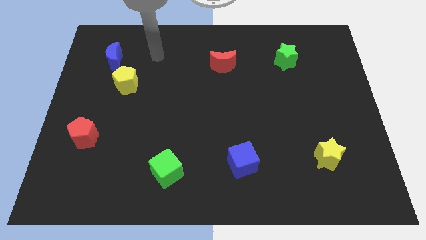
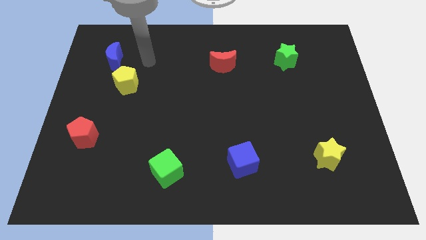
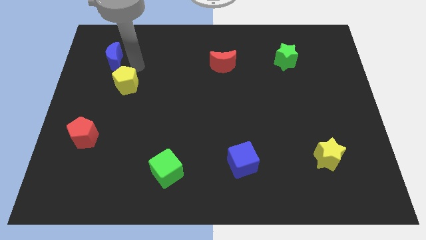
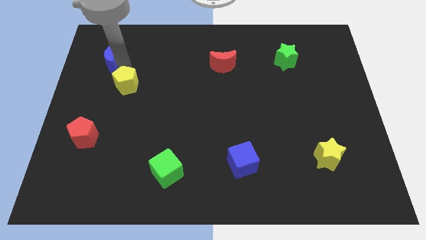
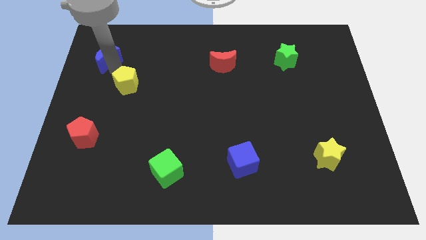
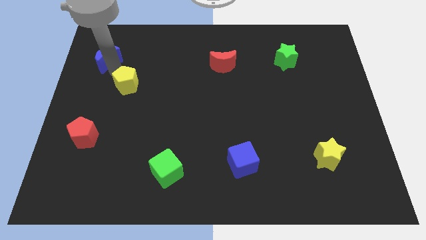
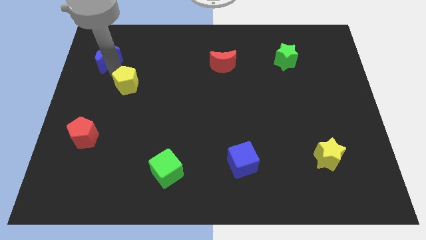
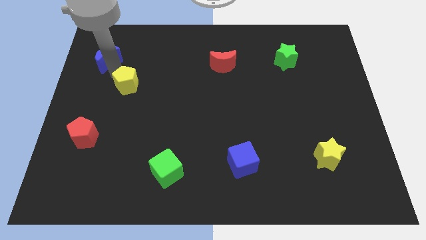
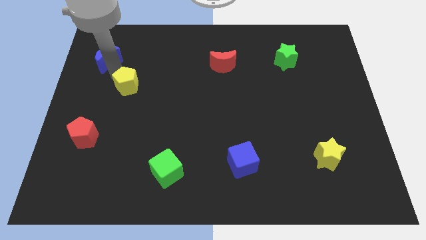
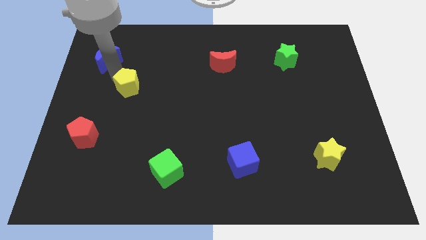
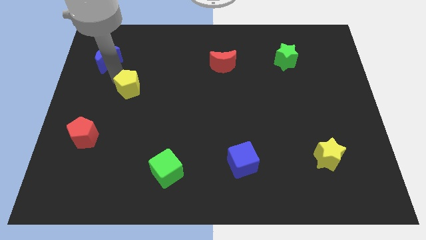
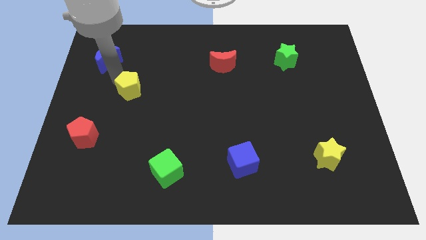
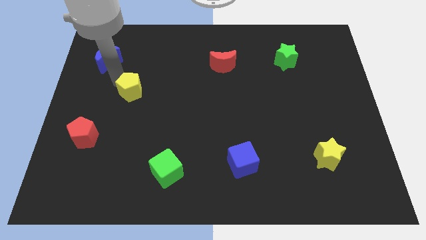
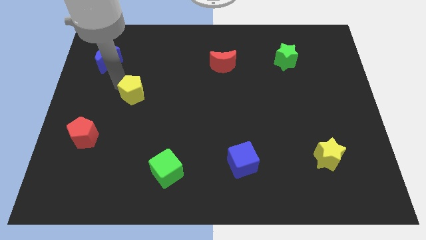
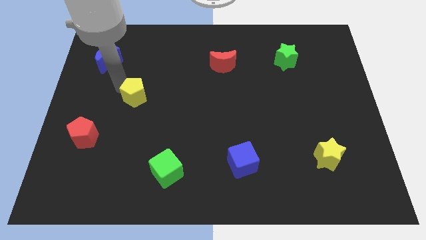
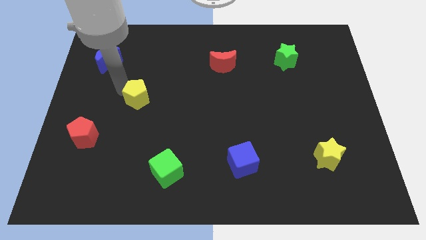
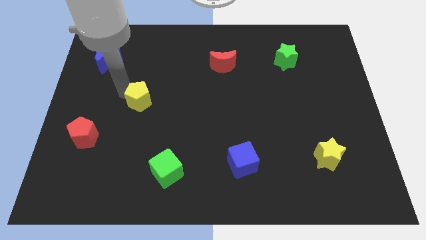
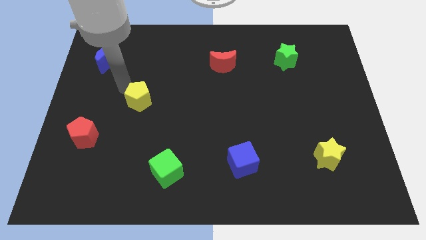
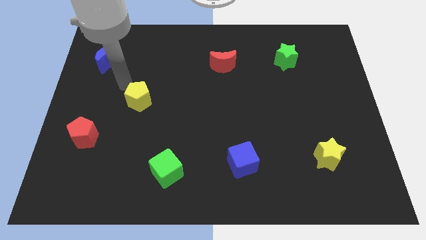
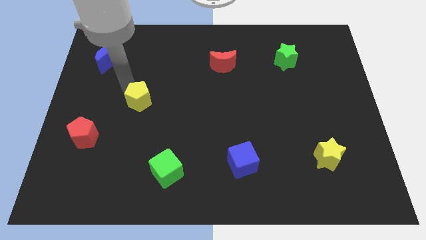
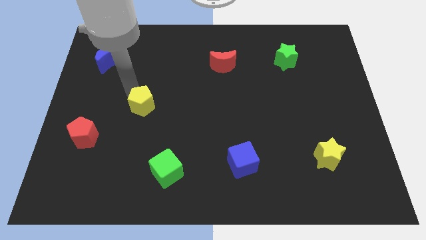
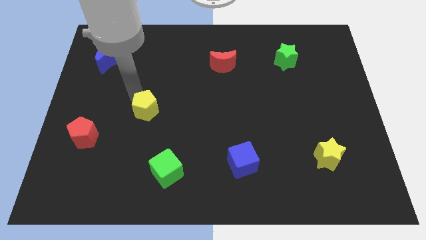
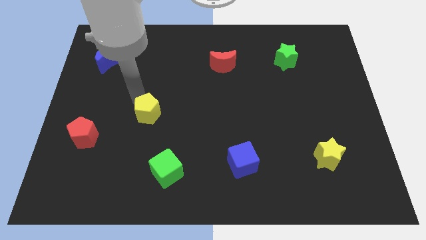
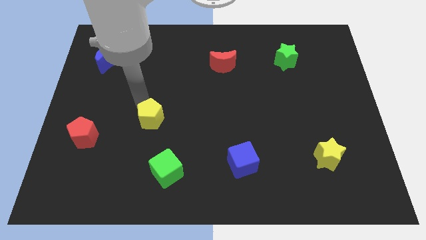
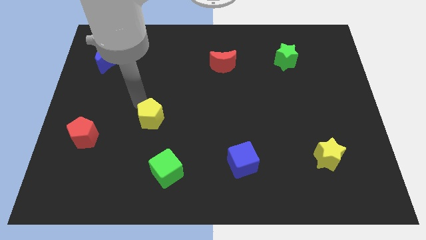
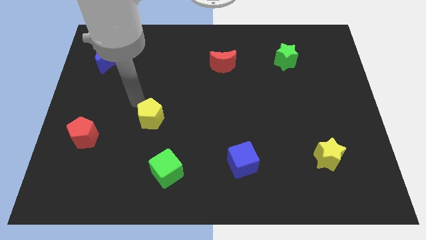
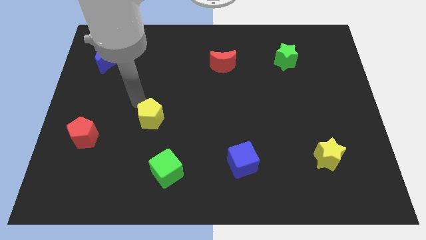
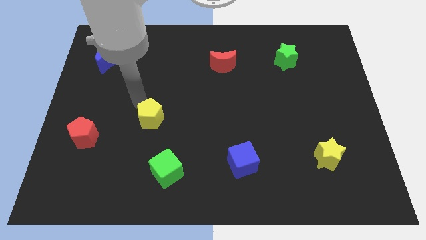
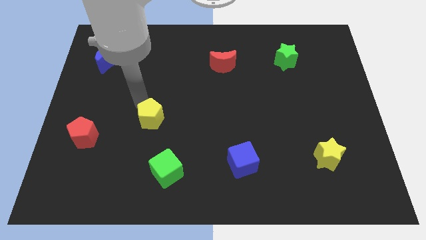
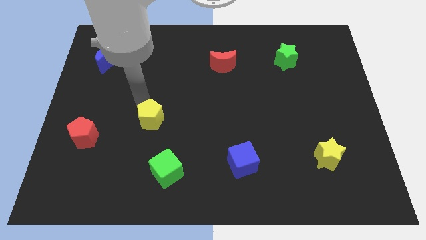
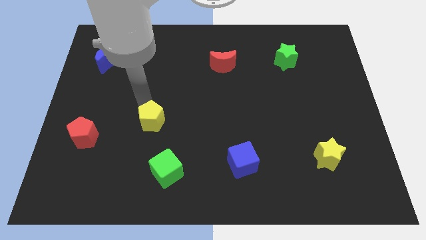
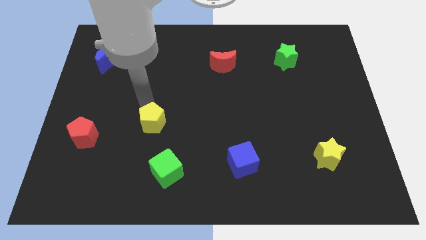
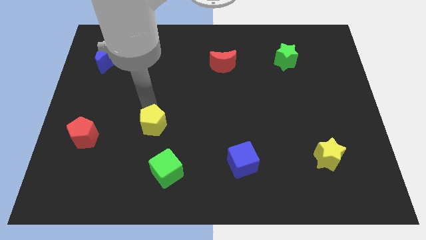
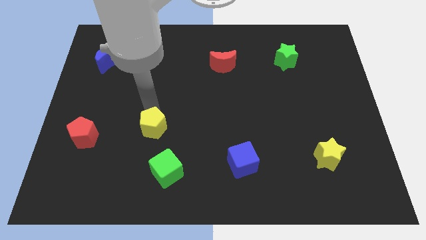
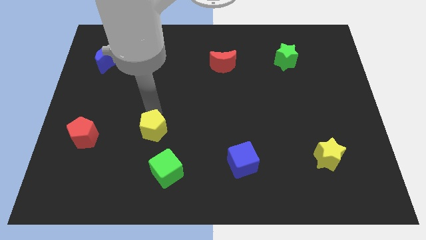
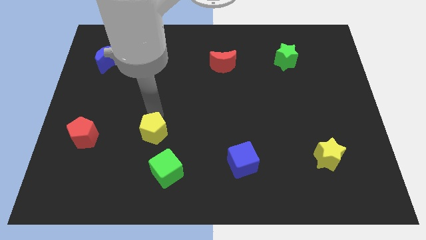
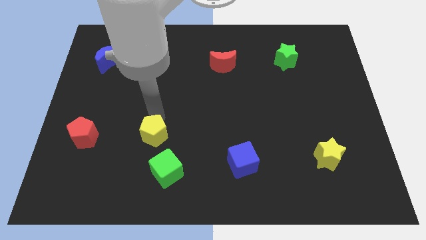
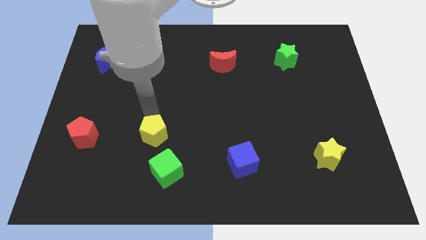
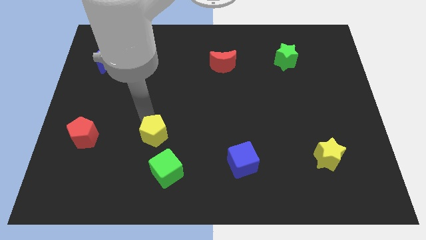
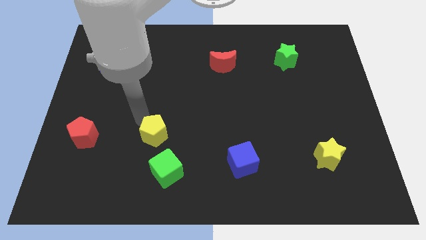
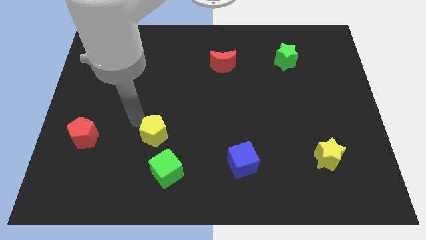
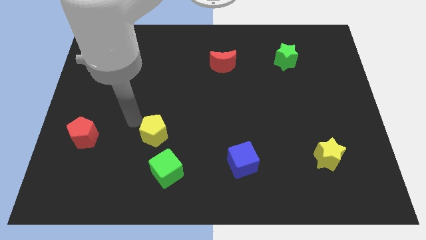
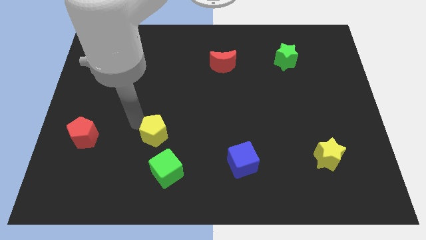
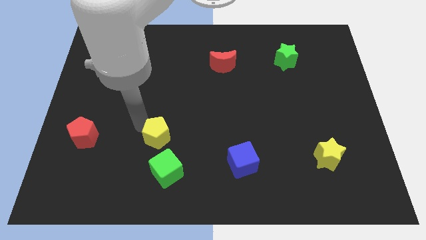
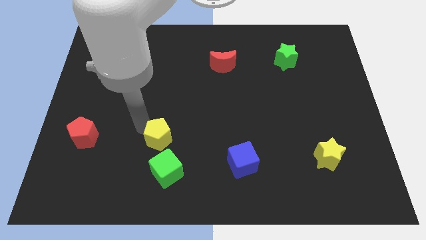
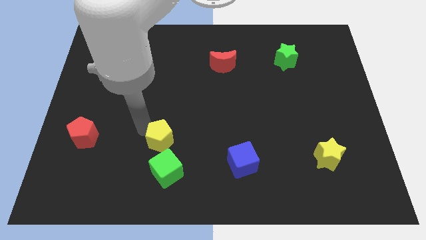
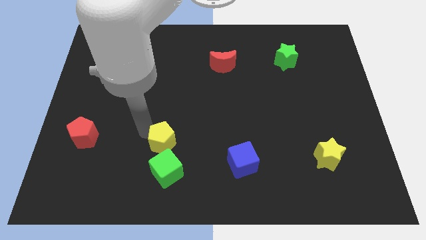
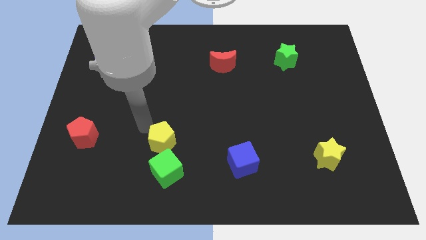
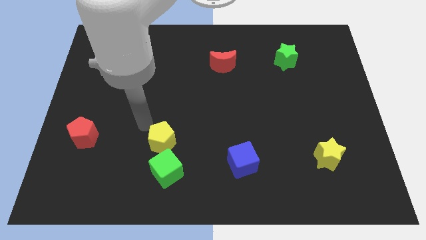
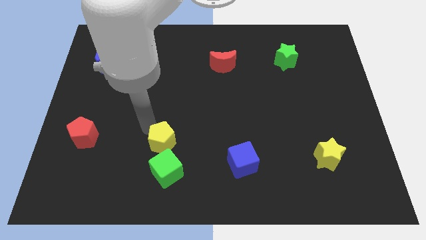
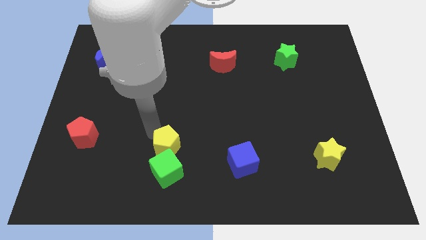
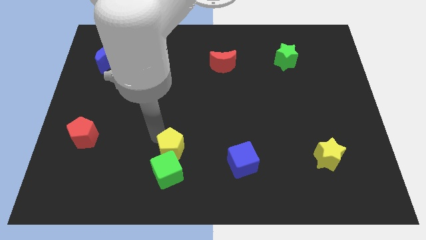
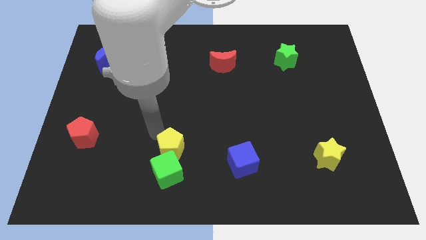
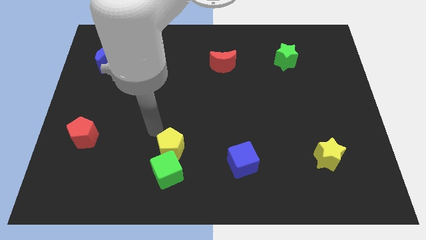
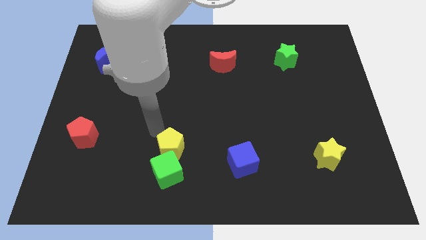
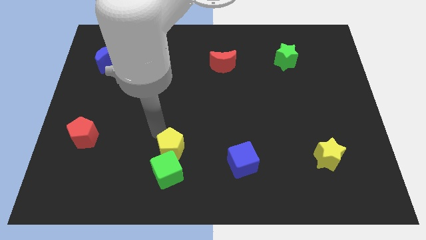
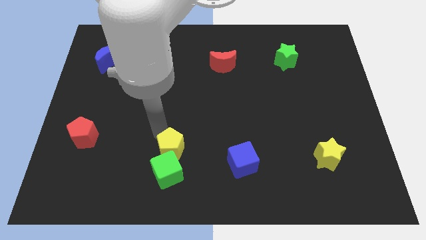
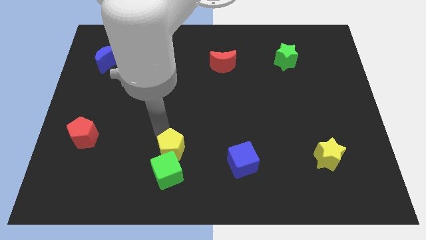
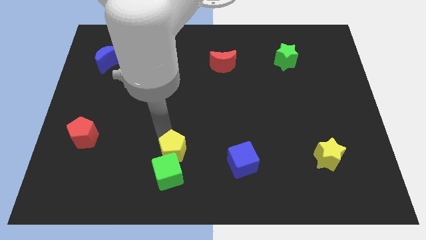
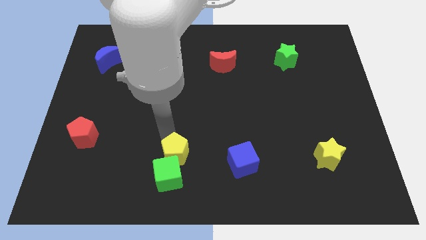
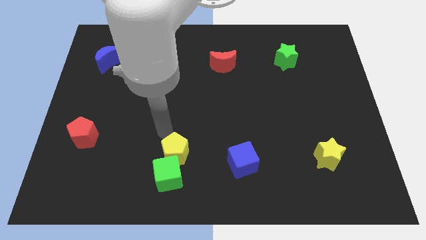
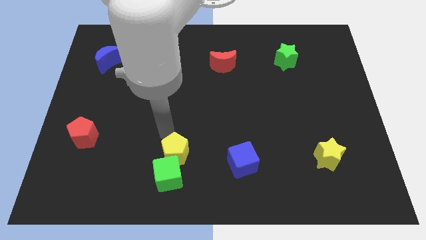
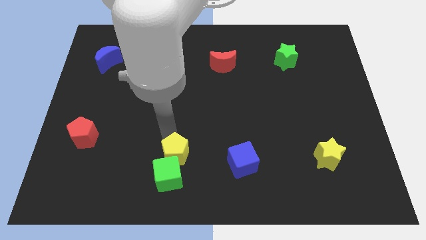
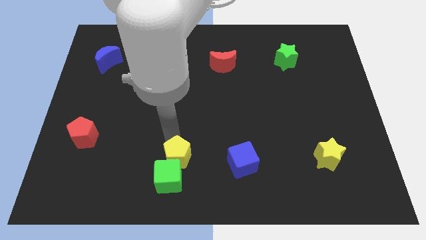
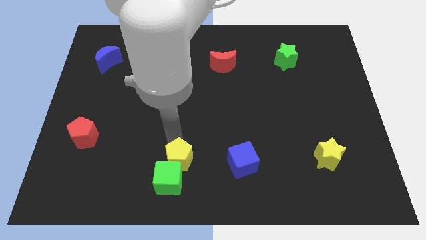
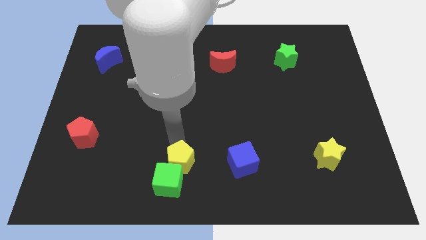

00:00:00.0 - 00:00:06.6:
slide the yellow pentagon to the bottom
